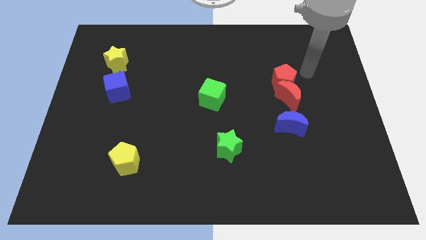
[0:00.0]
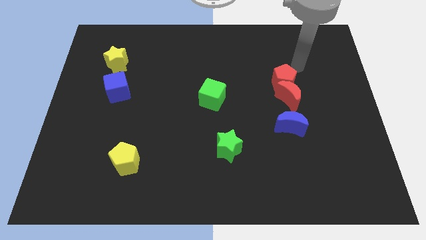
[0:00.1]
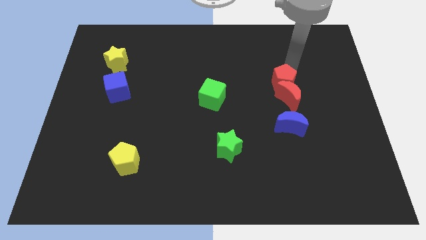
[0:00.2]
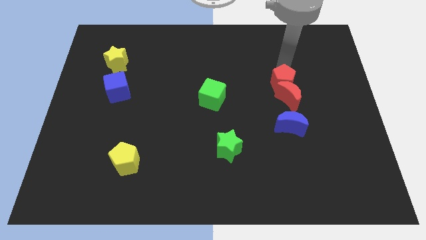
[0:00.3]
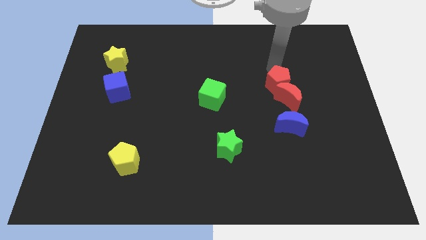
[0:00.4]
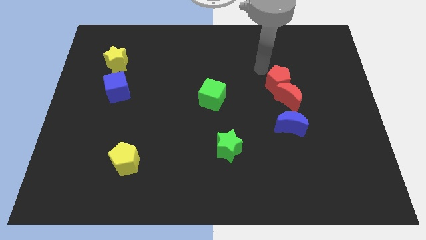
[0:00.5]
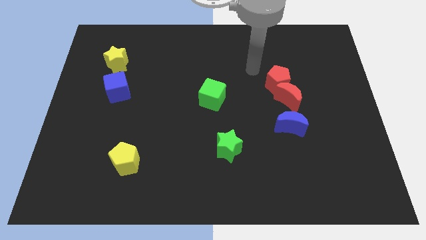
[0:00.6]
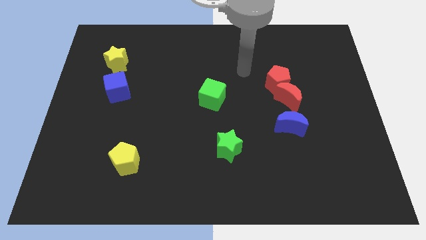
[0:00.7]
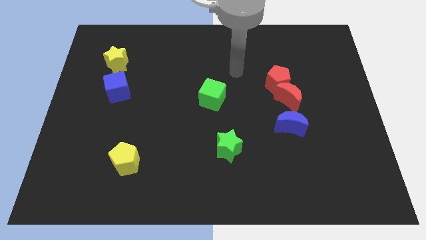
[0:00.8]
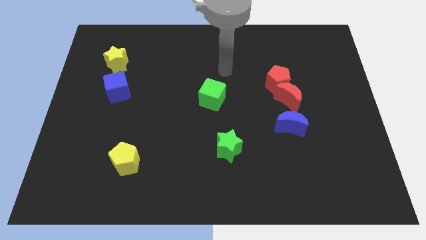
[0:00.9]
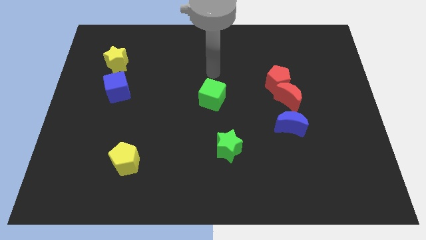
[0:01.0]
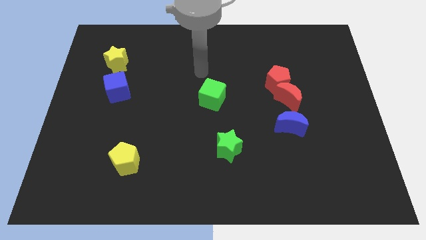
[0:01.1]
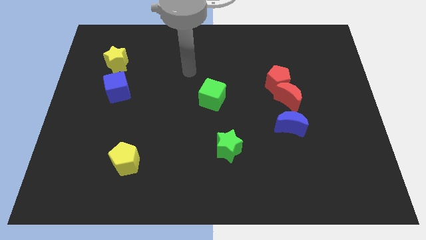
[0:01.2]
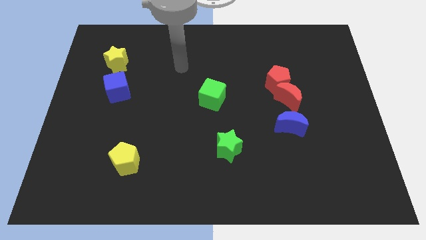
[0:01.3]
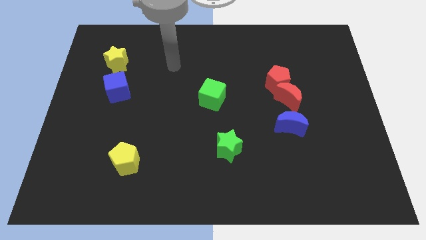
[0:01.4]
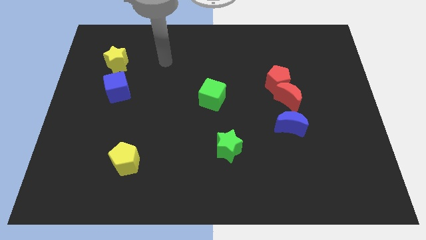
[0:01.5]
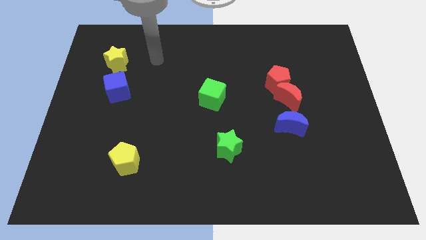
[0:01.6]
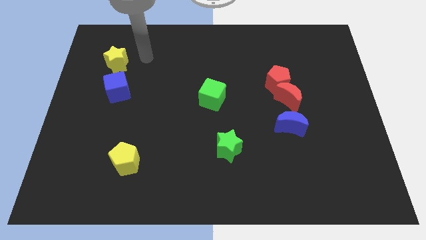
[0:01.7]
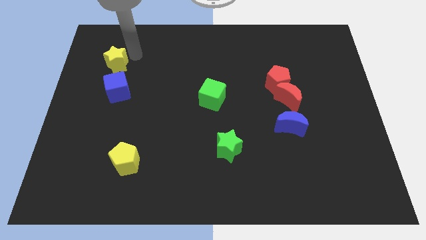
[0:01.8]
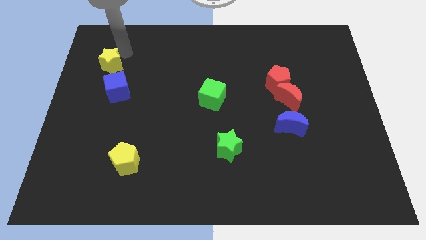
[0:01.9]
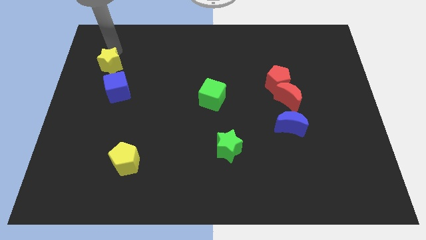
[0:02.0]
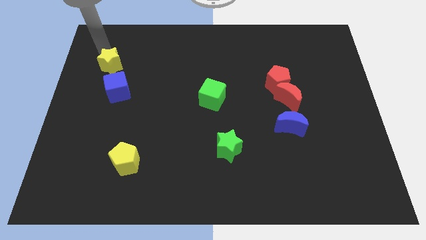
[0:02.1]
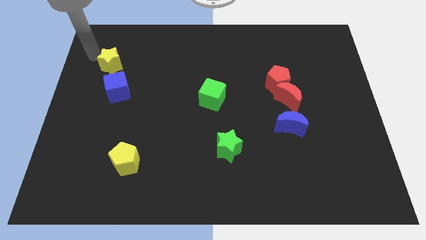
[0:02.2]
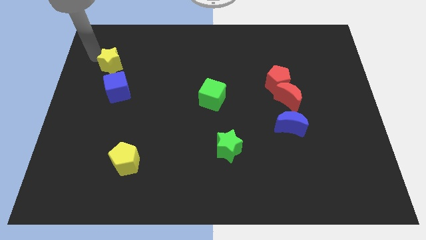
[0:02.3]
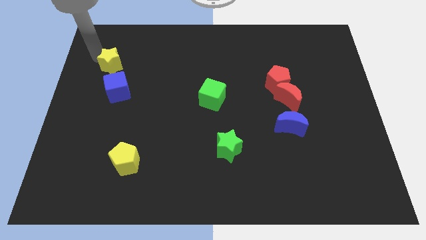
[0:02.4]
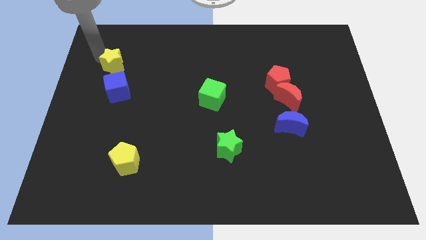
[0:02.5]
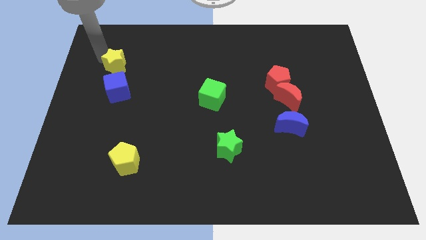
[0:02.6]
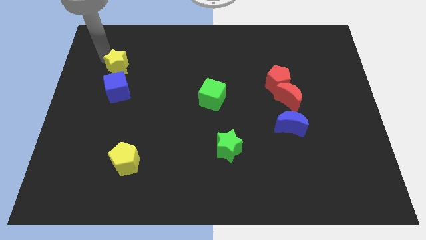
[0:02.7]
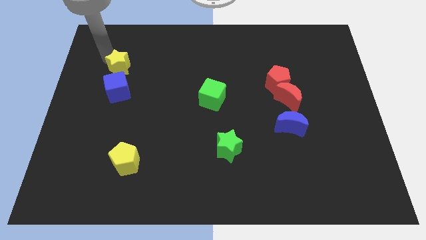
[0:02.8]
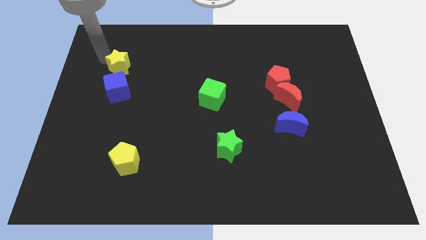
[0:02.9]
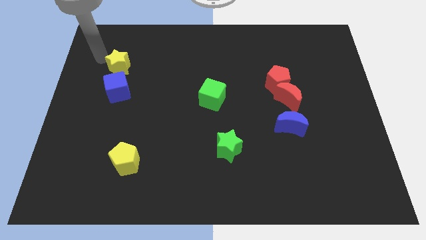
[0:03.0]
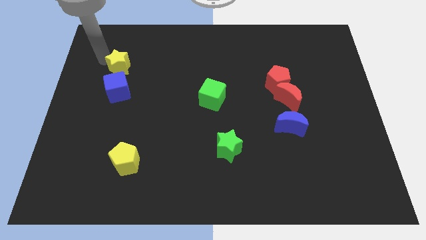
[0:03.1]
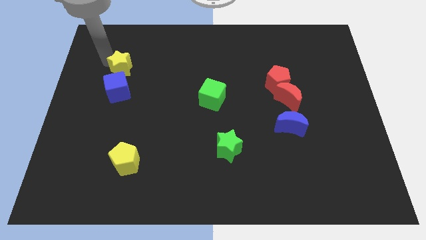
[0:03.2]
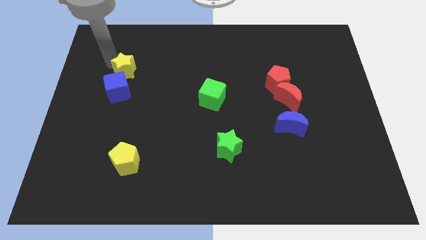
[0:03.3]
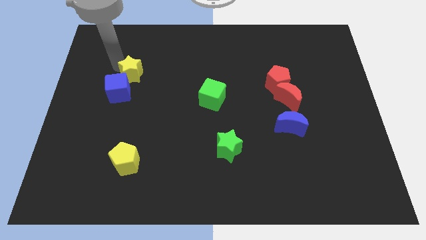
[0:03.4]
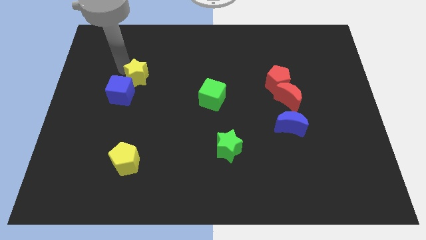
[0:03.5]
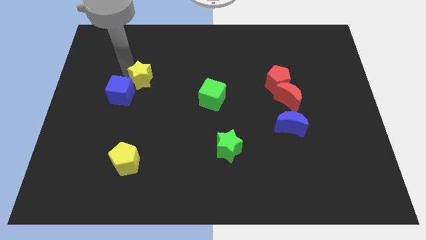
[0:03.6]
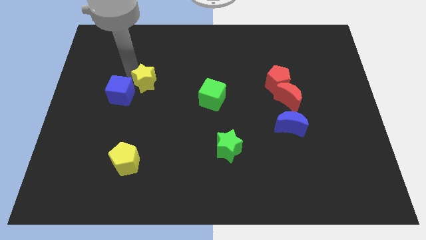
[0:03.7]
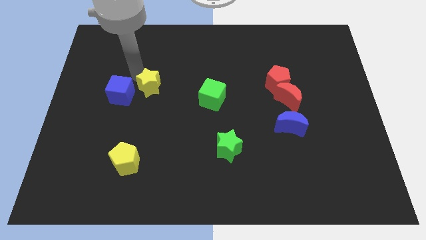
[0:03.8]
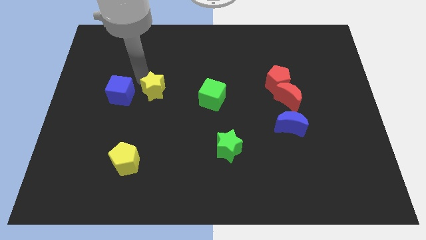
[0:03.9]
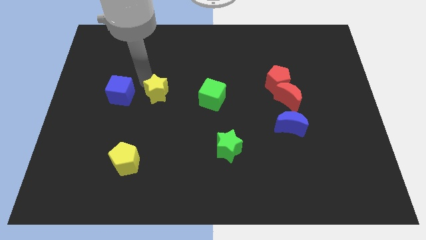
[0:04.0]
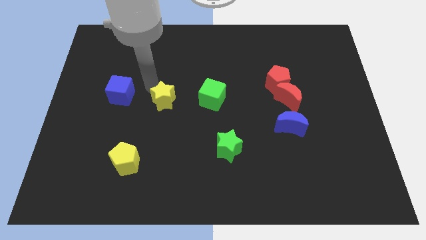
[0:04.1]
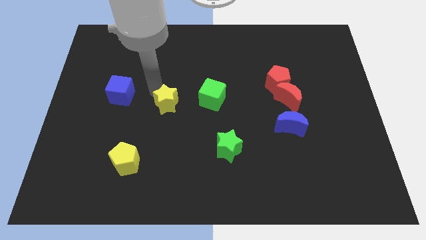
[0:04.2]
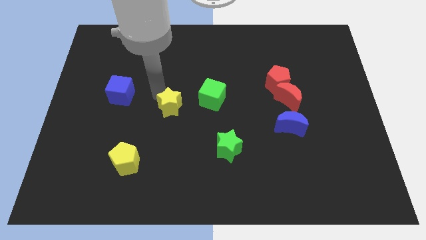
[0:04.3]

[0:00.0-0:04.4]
move the yellow star down and then to the right

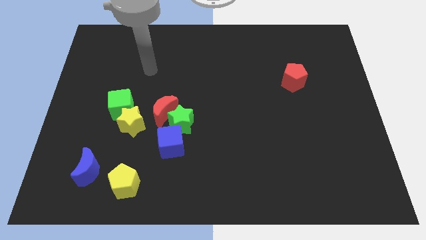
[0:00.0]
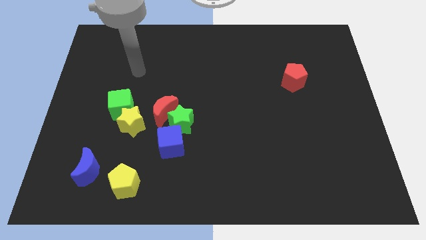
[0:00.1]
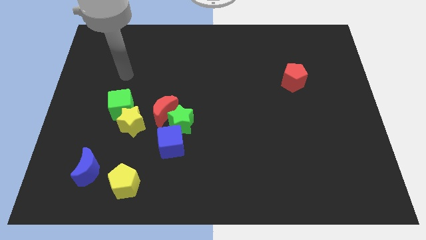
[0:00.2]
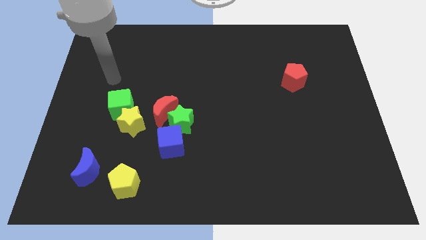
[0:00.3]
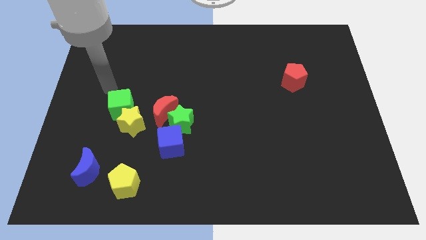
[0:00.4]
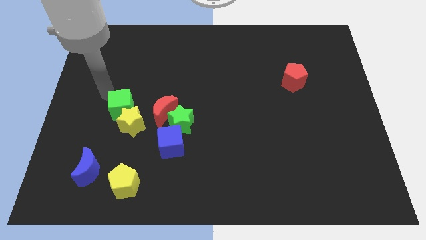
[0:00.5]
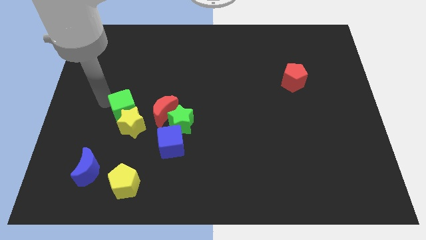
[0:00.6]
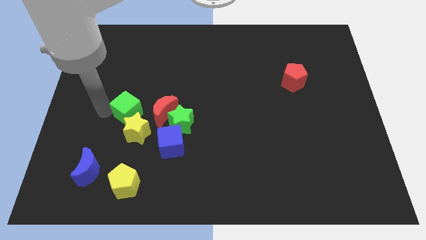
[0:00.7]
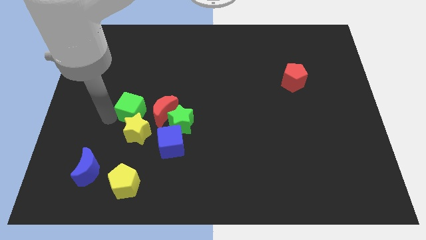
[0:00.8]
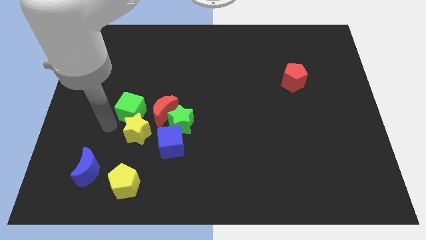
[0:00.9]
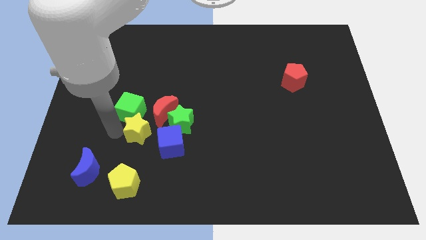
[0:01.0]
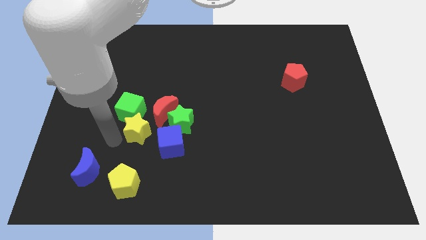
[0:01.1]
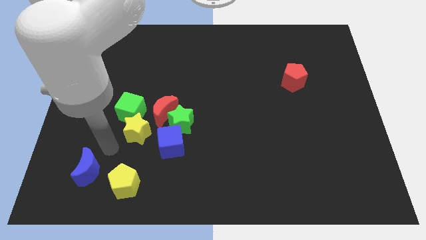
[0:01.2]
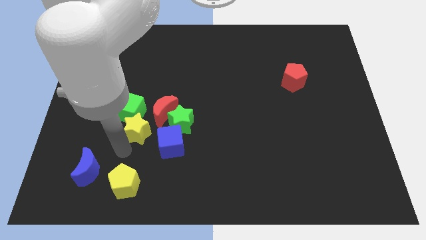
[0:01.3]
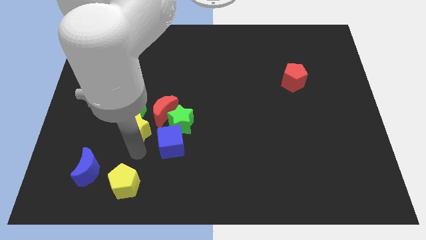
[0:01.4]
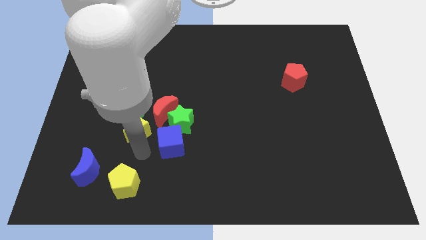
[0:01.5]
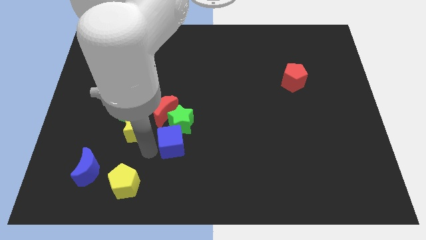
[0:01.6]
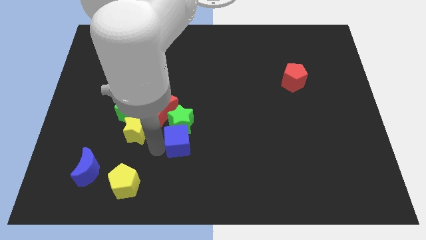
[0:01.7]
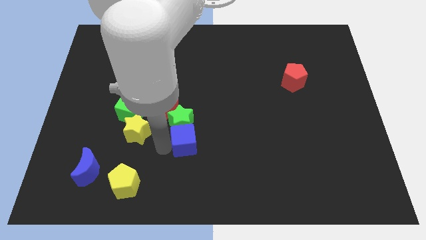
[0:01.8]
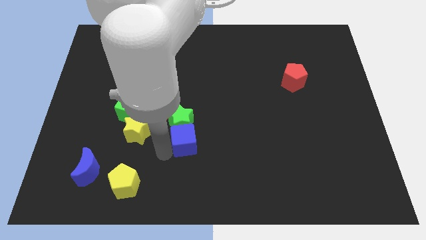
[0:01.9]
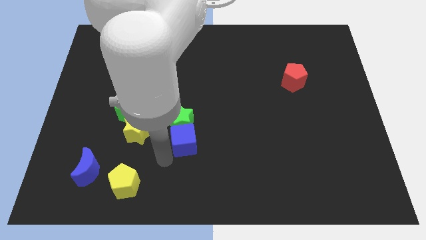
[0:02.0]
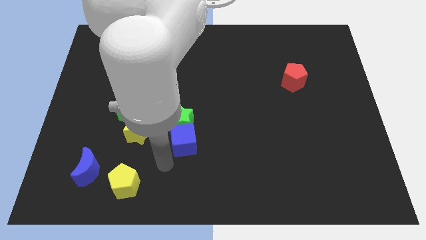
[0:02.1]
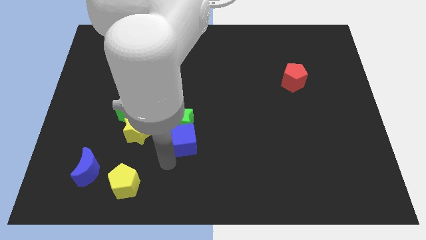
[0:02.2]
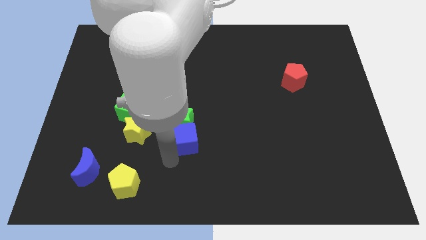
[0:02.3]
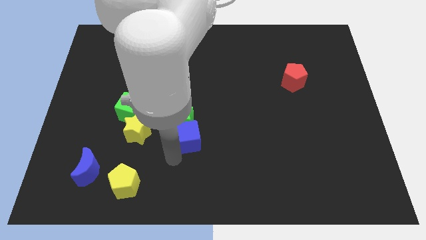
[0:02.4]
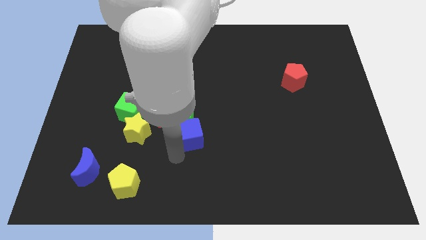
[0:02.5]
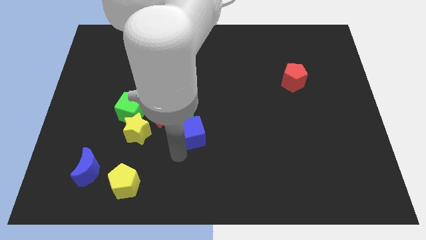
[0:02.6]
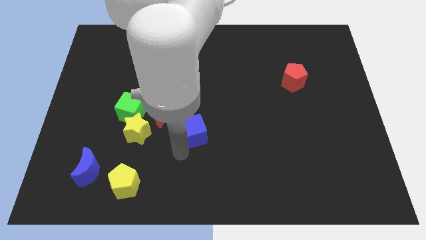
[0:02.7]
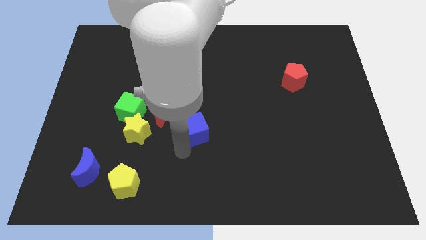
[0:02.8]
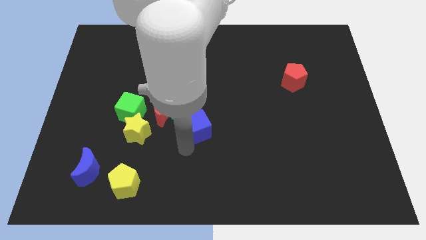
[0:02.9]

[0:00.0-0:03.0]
push the blue cube diagonally upwards and to the right a bit

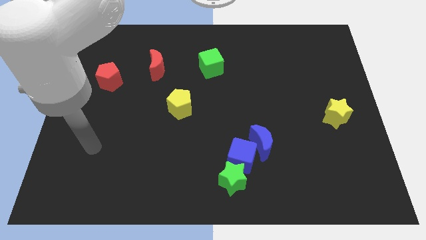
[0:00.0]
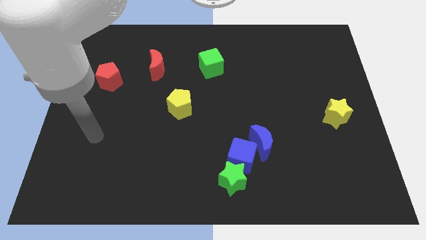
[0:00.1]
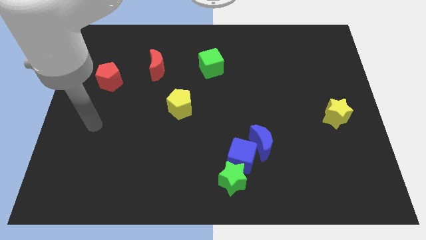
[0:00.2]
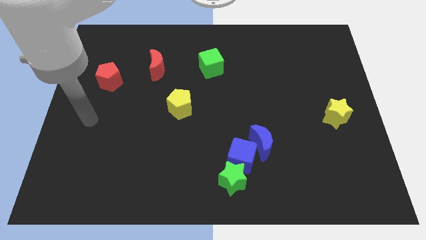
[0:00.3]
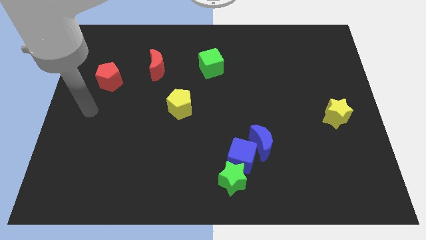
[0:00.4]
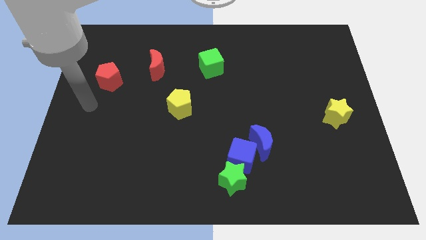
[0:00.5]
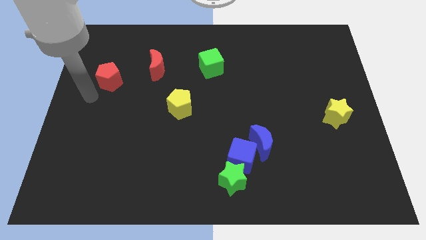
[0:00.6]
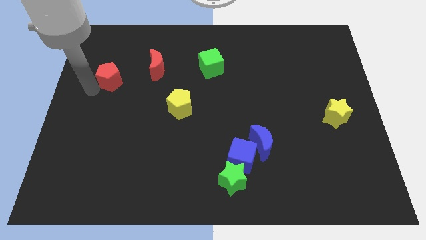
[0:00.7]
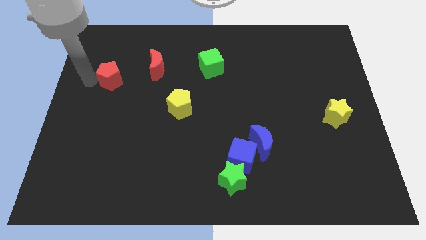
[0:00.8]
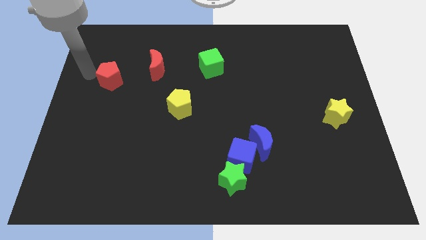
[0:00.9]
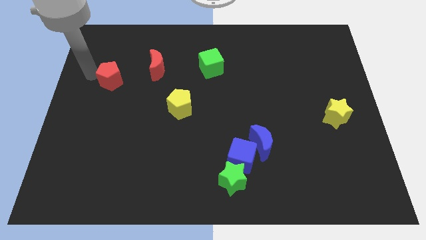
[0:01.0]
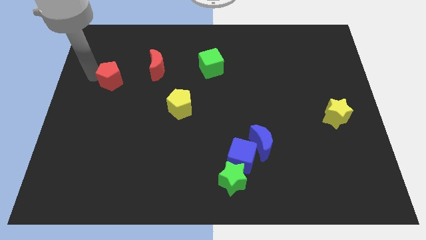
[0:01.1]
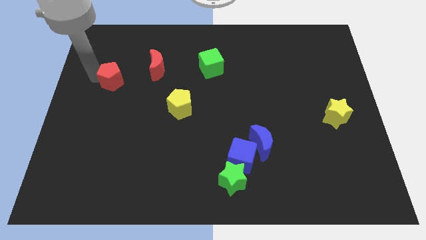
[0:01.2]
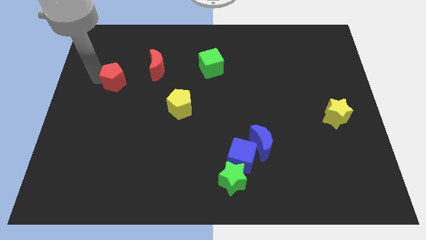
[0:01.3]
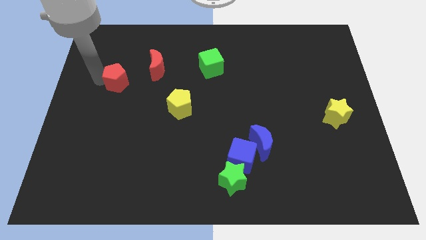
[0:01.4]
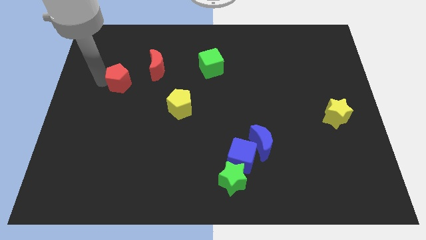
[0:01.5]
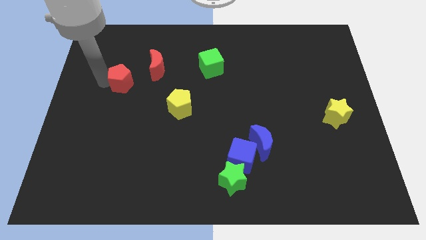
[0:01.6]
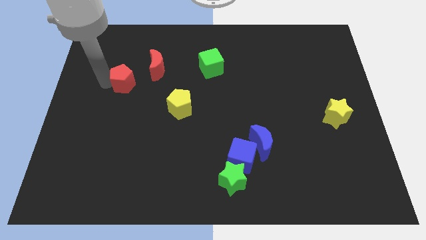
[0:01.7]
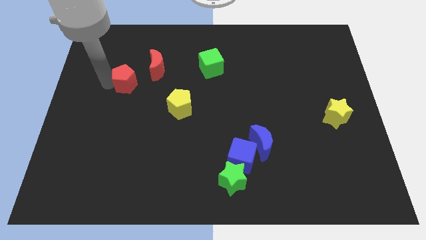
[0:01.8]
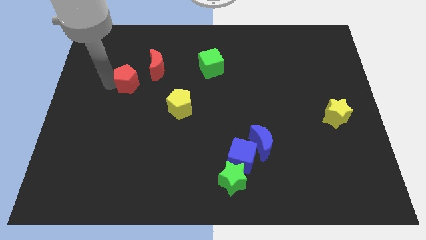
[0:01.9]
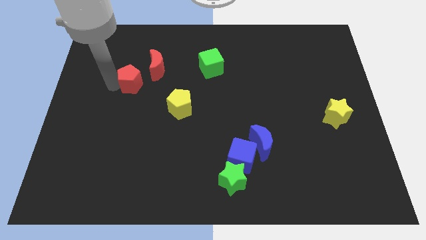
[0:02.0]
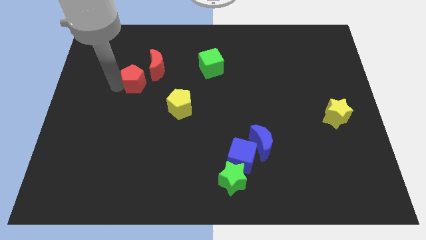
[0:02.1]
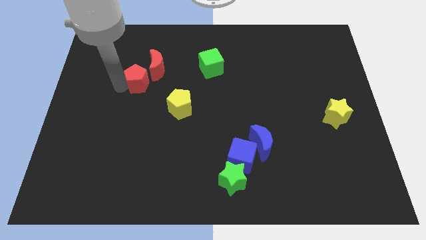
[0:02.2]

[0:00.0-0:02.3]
slightly move the red pentagon to the right
